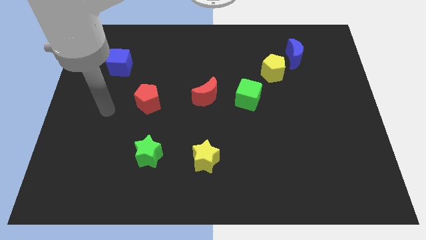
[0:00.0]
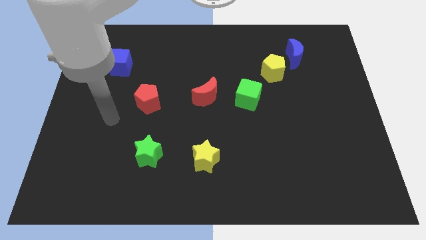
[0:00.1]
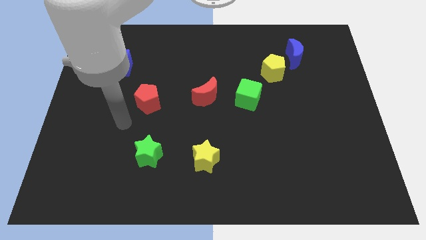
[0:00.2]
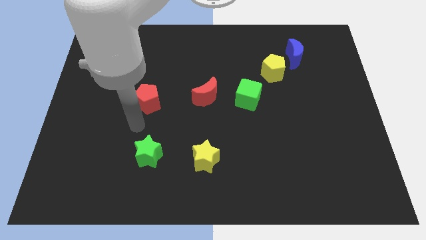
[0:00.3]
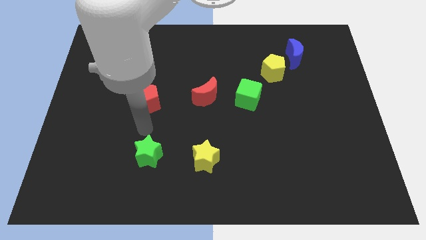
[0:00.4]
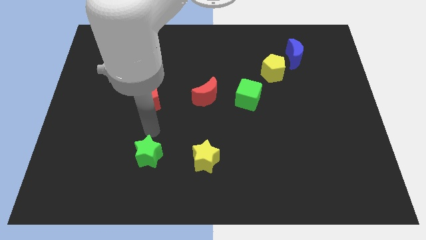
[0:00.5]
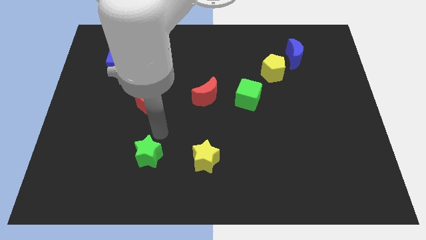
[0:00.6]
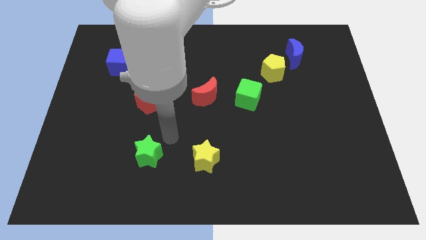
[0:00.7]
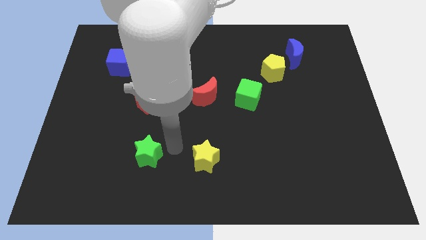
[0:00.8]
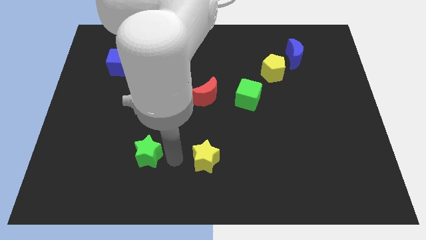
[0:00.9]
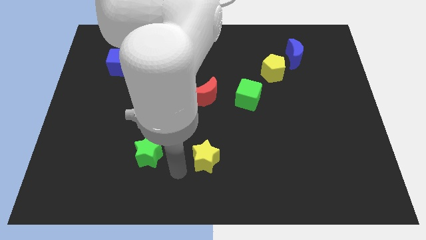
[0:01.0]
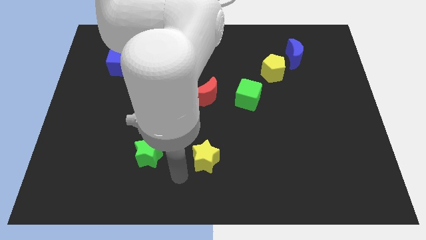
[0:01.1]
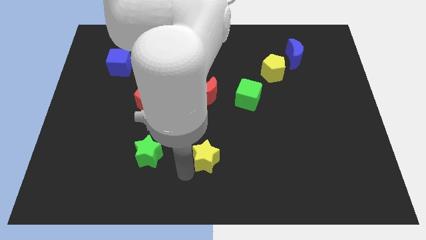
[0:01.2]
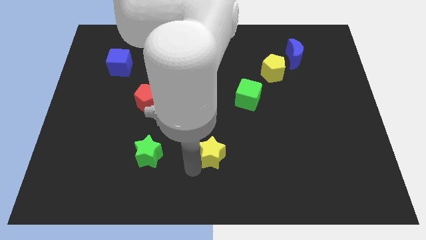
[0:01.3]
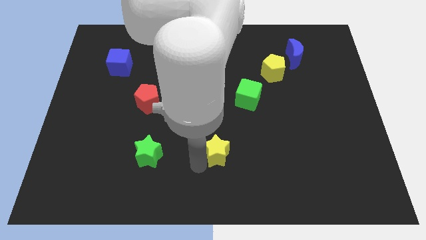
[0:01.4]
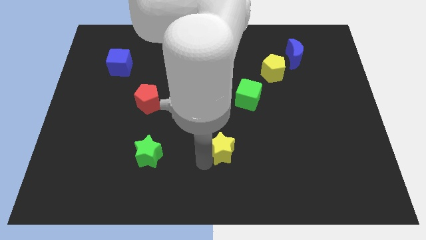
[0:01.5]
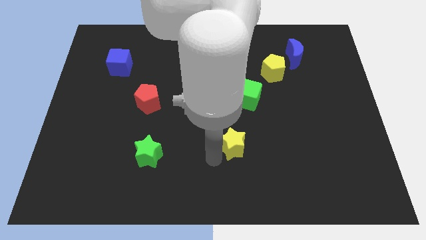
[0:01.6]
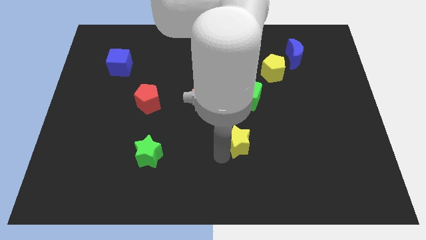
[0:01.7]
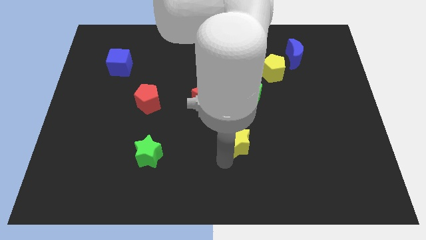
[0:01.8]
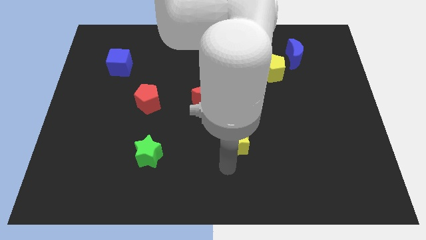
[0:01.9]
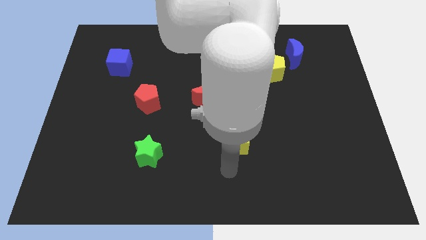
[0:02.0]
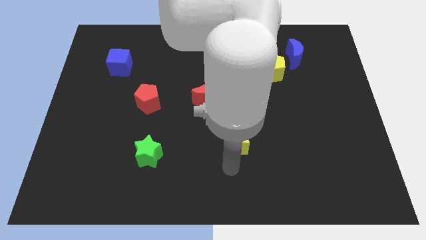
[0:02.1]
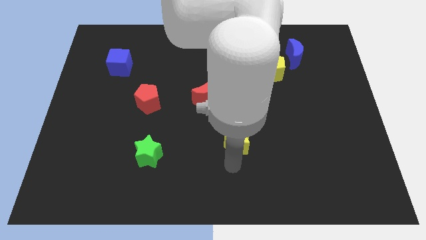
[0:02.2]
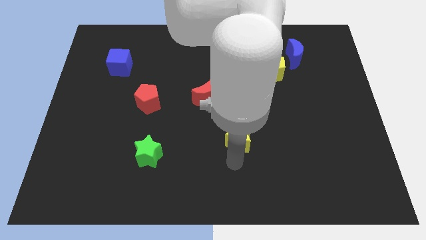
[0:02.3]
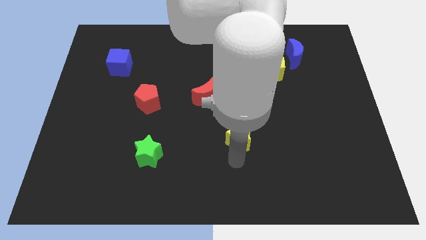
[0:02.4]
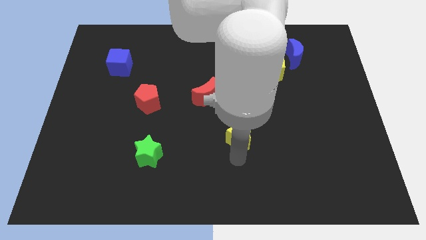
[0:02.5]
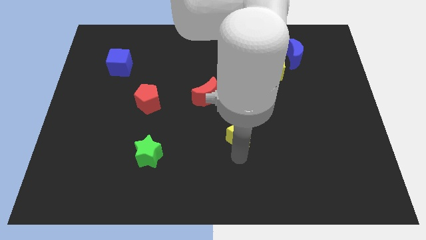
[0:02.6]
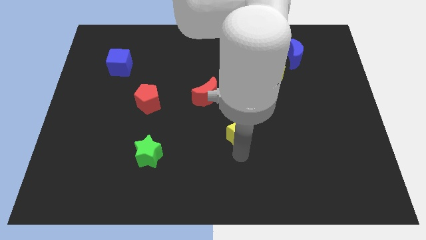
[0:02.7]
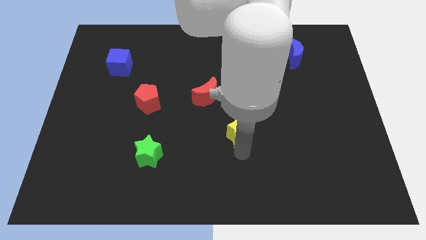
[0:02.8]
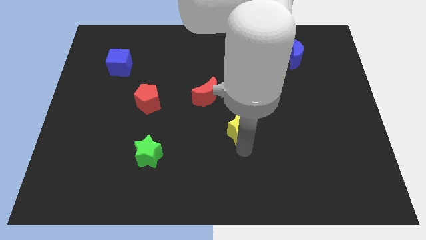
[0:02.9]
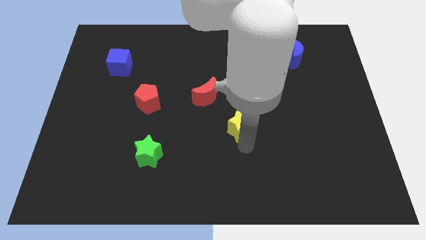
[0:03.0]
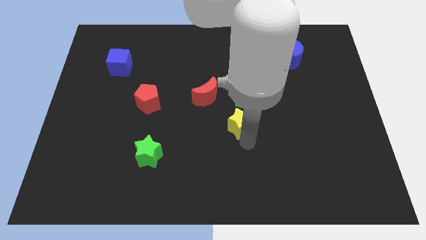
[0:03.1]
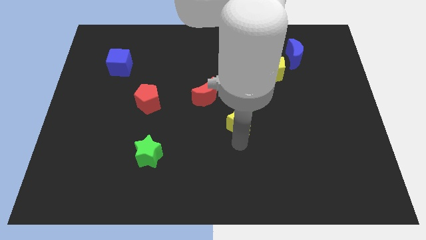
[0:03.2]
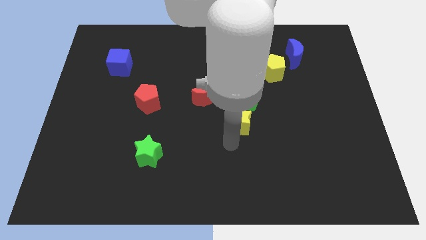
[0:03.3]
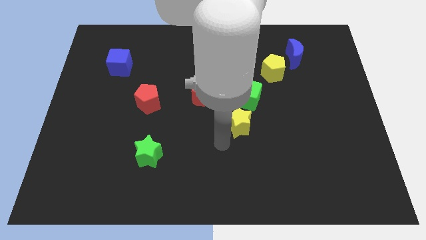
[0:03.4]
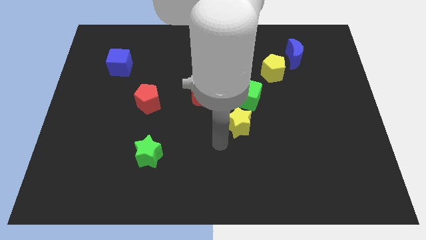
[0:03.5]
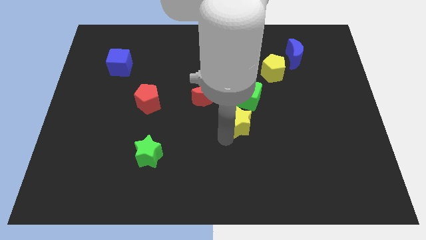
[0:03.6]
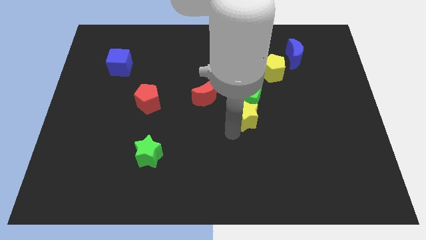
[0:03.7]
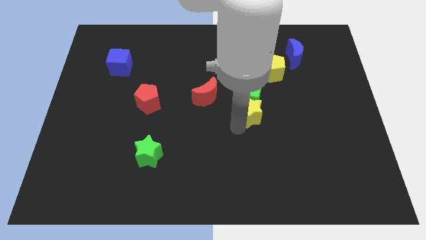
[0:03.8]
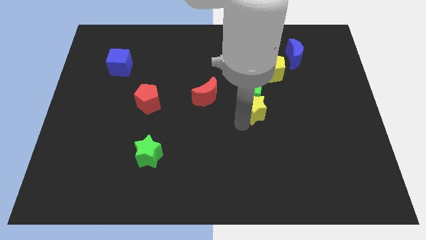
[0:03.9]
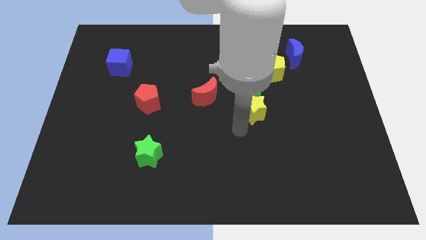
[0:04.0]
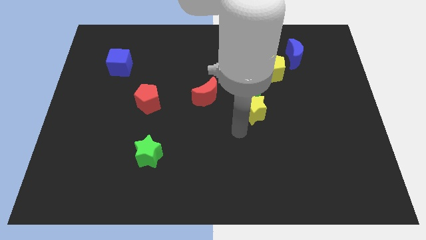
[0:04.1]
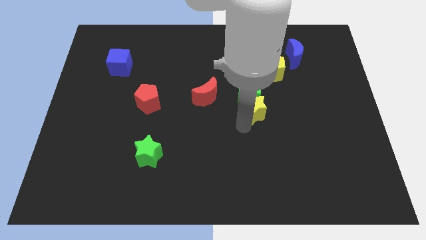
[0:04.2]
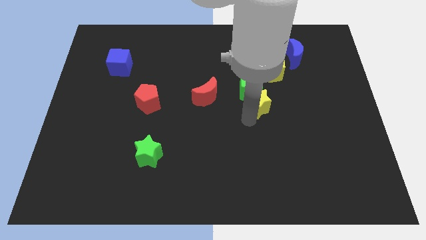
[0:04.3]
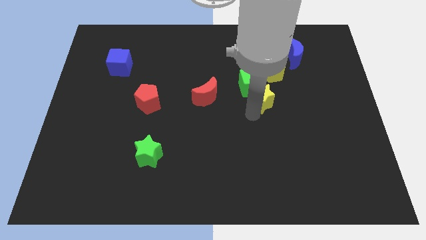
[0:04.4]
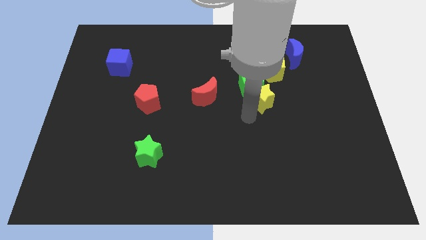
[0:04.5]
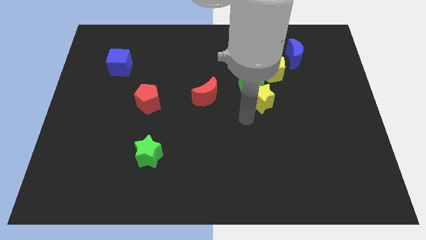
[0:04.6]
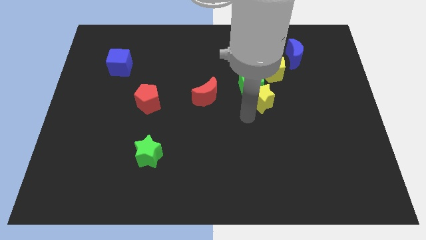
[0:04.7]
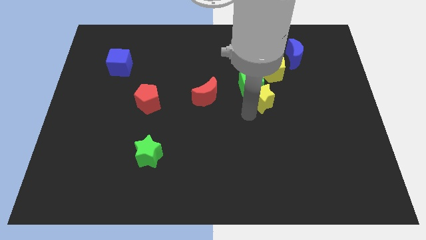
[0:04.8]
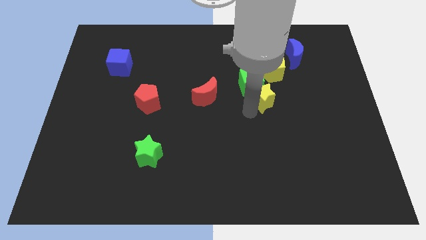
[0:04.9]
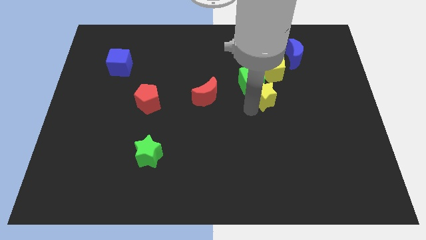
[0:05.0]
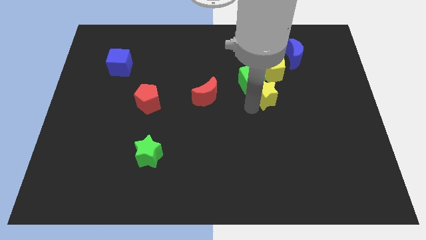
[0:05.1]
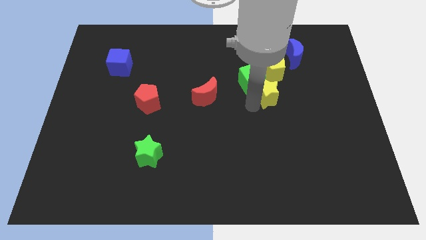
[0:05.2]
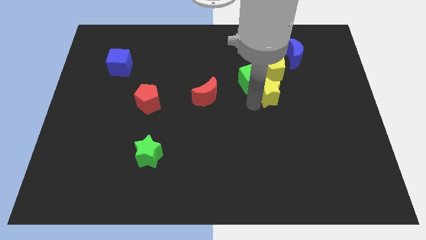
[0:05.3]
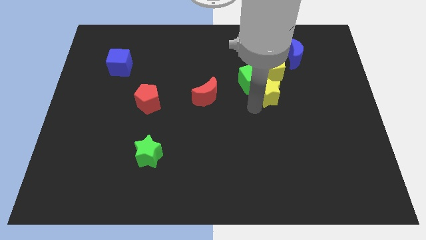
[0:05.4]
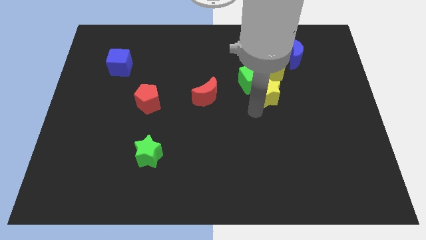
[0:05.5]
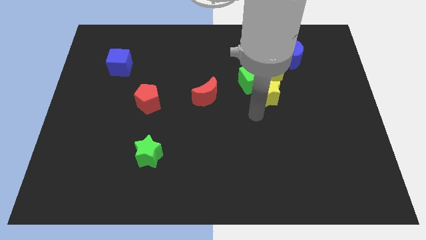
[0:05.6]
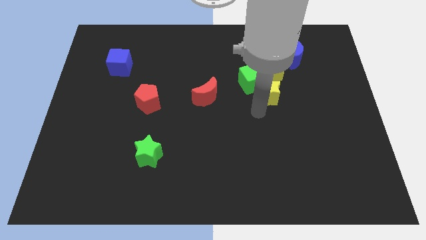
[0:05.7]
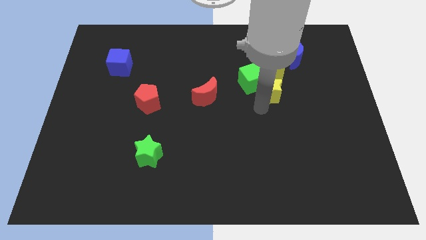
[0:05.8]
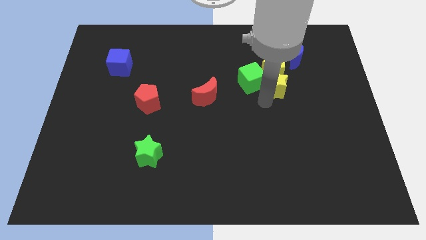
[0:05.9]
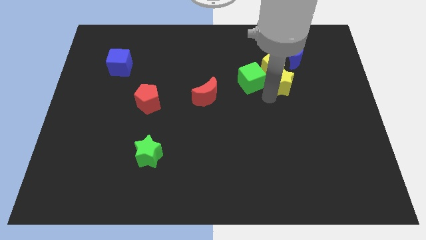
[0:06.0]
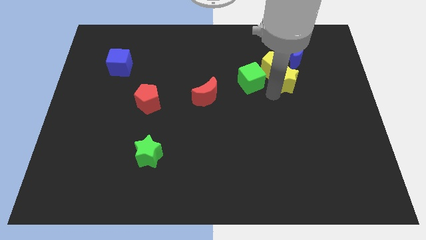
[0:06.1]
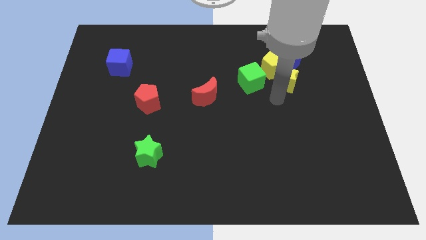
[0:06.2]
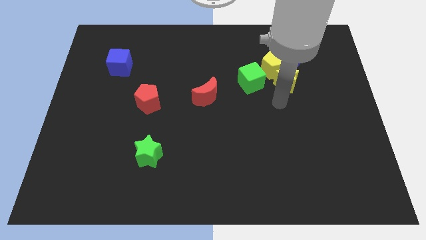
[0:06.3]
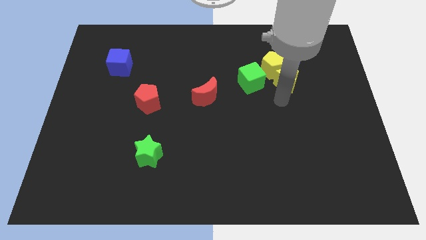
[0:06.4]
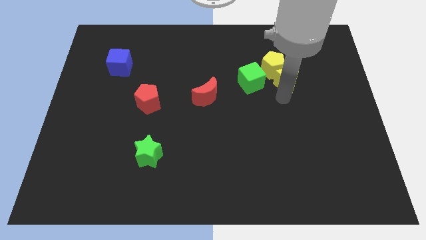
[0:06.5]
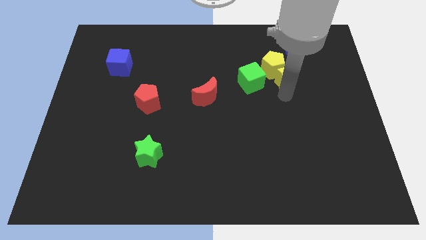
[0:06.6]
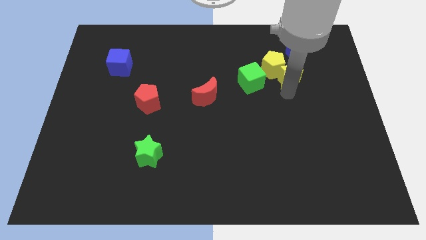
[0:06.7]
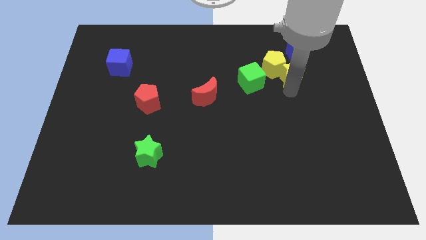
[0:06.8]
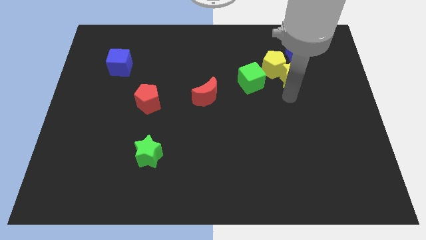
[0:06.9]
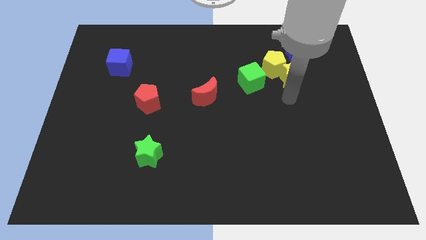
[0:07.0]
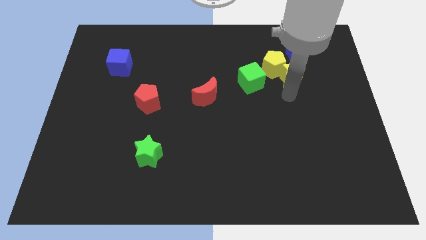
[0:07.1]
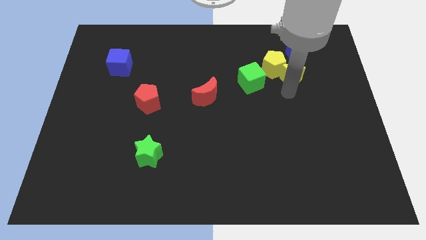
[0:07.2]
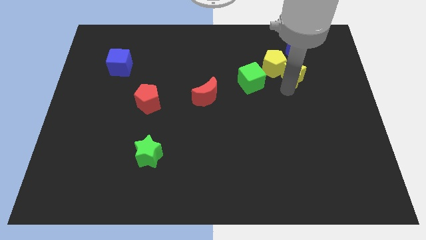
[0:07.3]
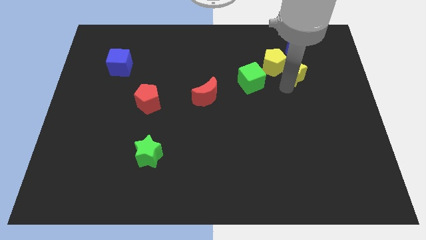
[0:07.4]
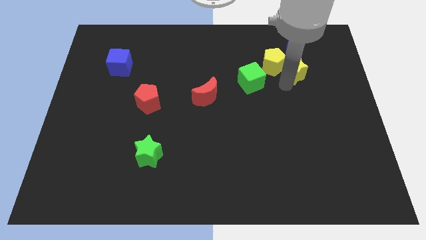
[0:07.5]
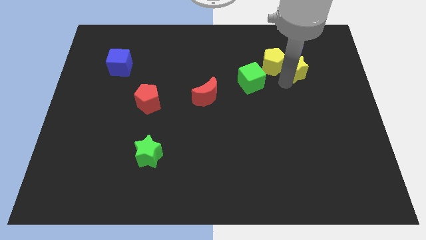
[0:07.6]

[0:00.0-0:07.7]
slide the yellow star close to the blue moon
